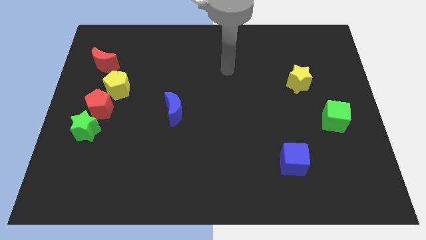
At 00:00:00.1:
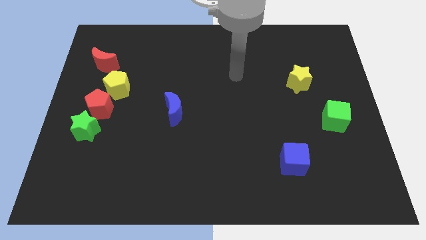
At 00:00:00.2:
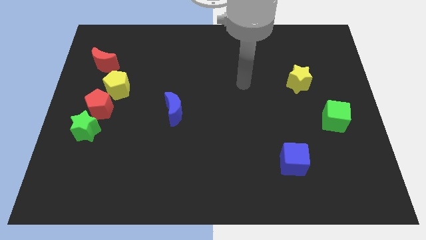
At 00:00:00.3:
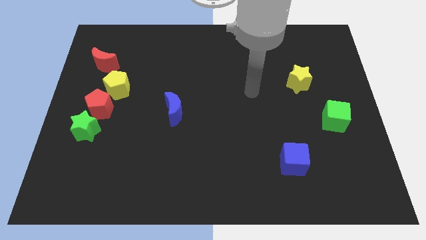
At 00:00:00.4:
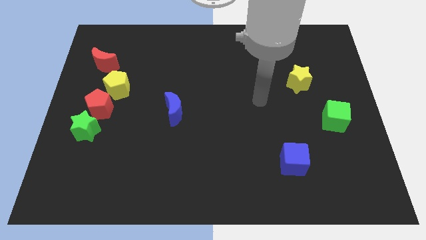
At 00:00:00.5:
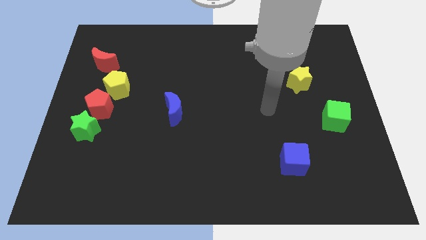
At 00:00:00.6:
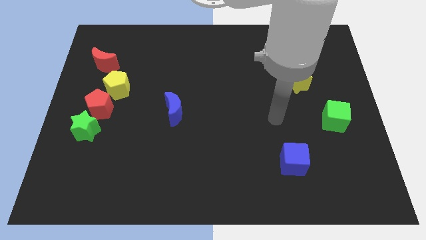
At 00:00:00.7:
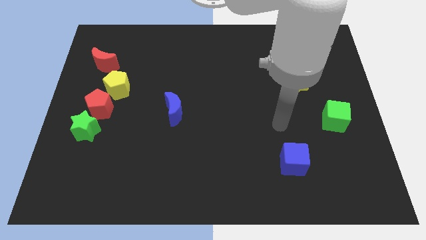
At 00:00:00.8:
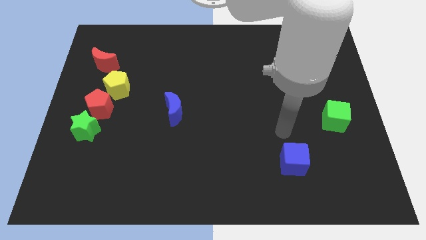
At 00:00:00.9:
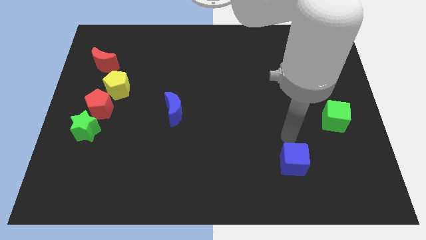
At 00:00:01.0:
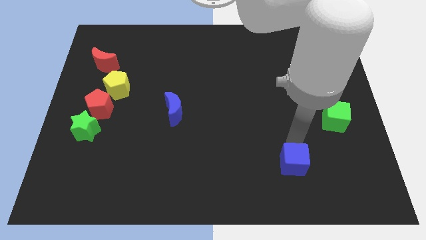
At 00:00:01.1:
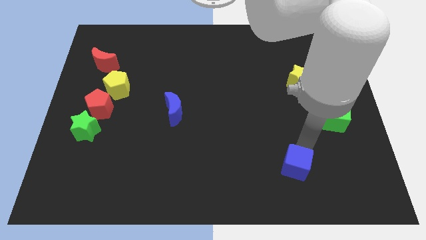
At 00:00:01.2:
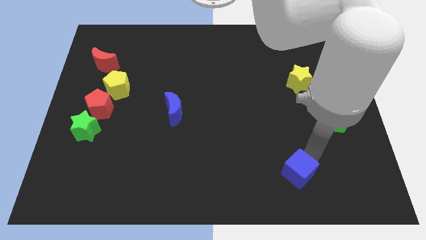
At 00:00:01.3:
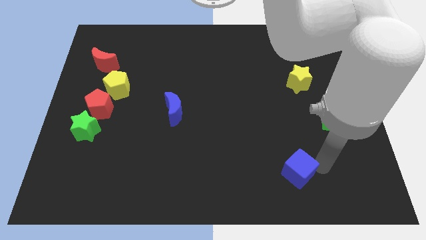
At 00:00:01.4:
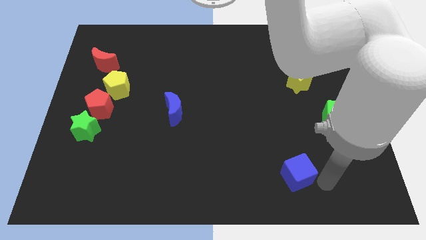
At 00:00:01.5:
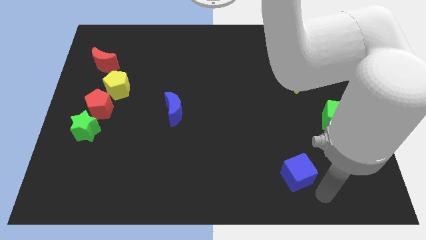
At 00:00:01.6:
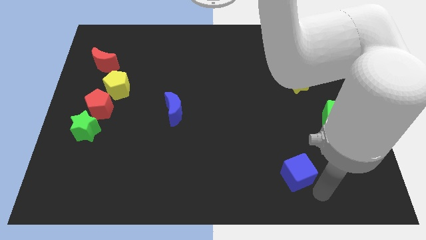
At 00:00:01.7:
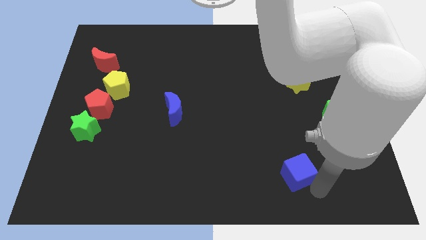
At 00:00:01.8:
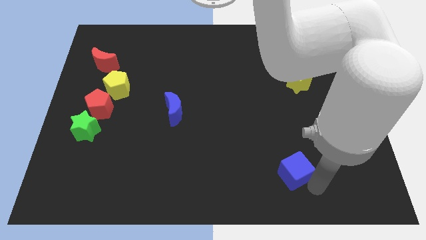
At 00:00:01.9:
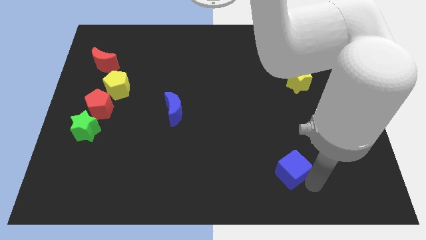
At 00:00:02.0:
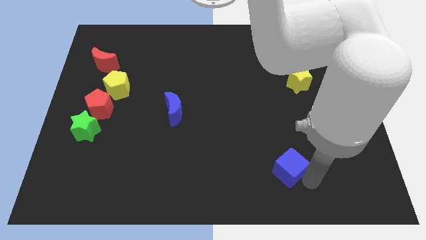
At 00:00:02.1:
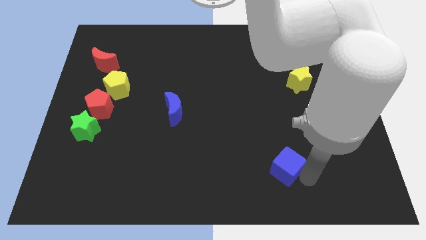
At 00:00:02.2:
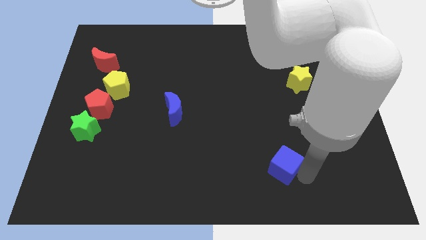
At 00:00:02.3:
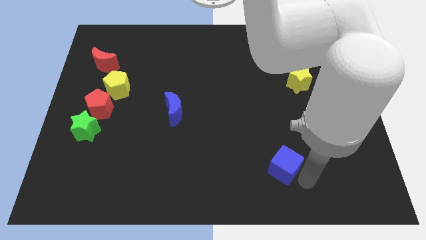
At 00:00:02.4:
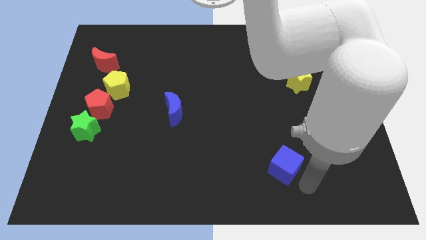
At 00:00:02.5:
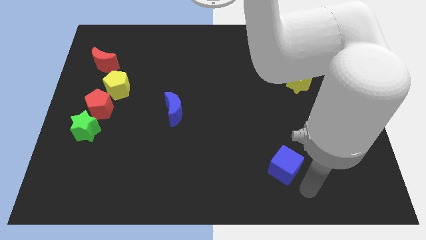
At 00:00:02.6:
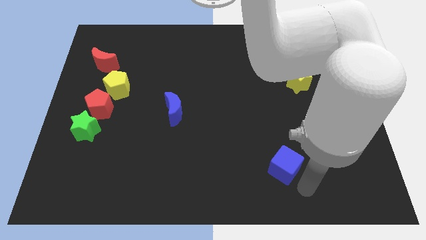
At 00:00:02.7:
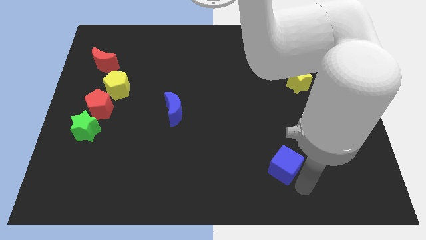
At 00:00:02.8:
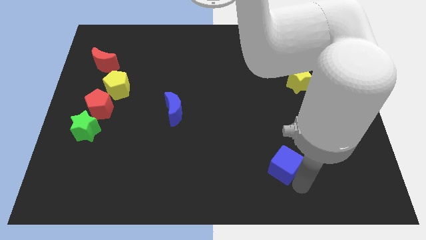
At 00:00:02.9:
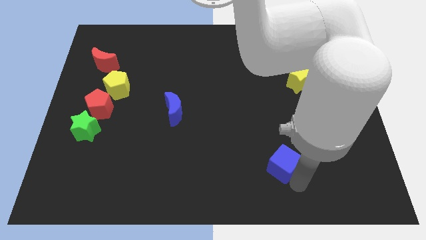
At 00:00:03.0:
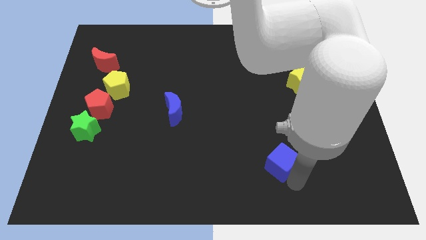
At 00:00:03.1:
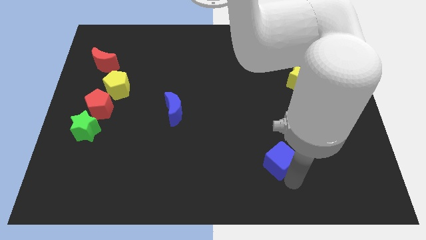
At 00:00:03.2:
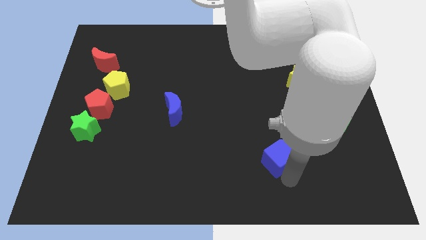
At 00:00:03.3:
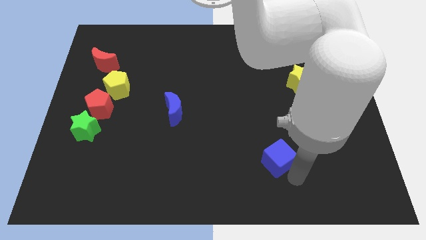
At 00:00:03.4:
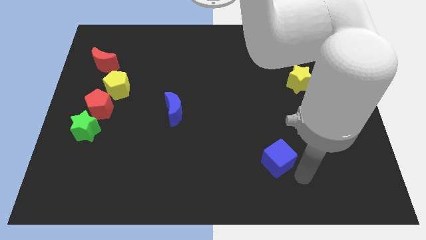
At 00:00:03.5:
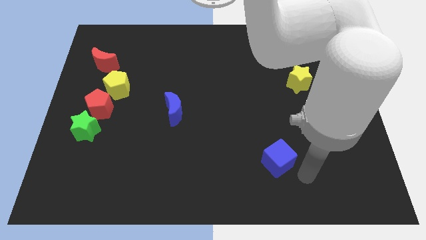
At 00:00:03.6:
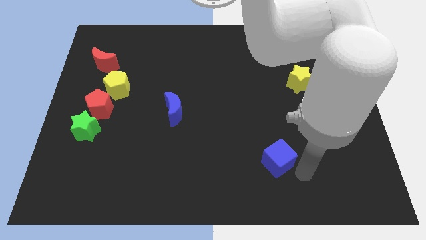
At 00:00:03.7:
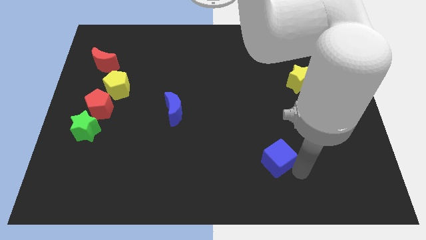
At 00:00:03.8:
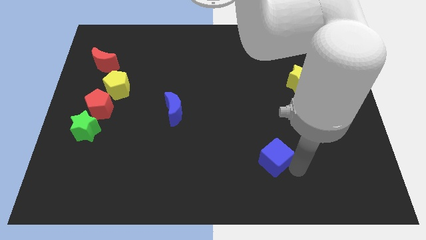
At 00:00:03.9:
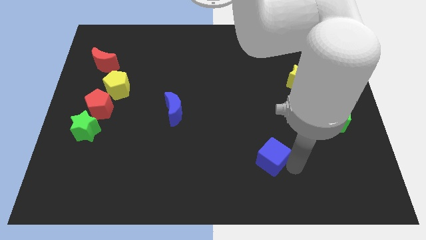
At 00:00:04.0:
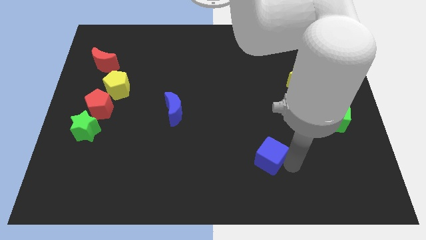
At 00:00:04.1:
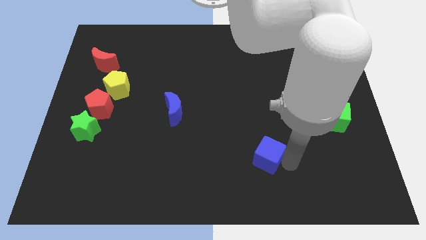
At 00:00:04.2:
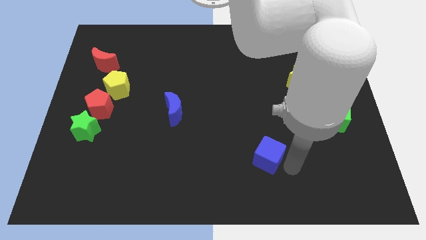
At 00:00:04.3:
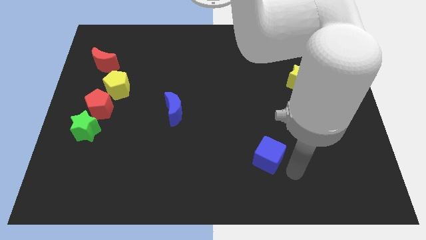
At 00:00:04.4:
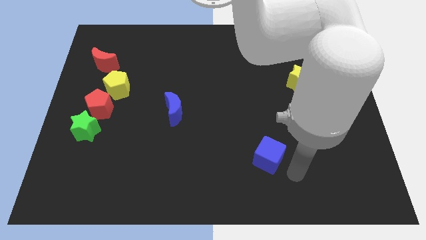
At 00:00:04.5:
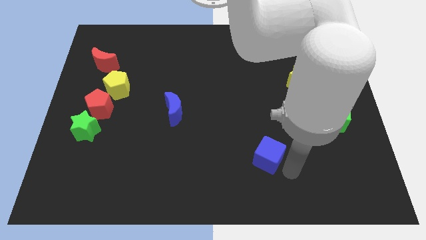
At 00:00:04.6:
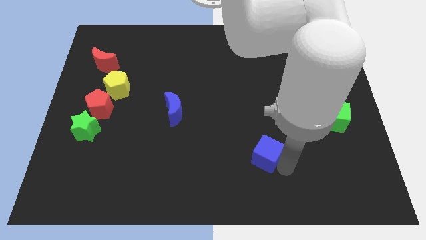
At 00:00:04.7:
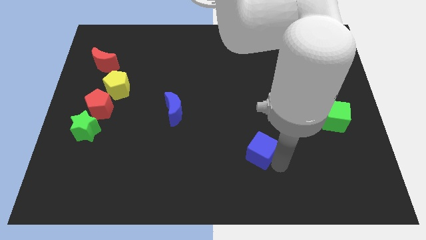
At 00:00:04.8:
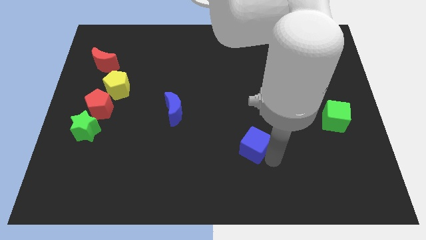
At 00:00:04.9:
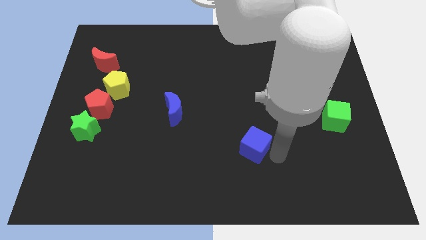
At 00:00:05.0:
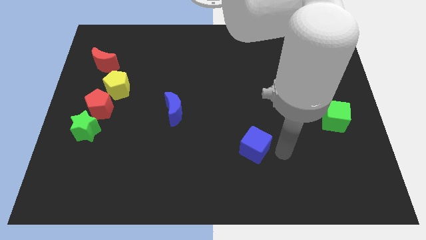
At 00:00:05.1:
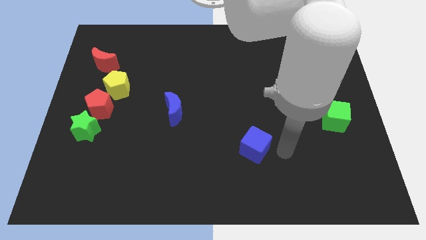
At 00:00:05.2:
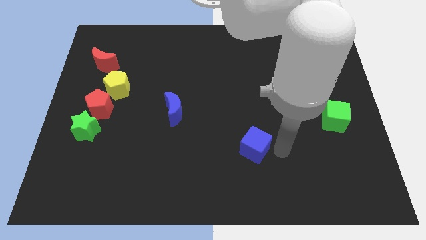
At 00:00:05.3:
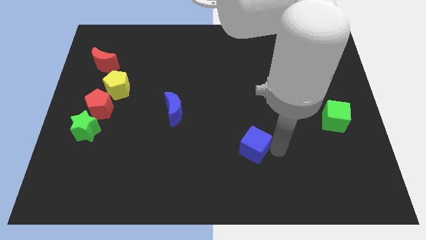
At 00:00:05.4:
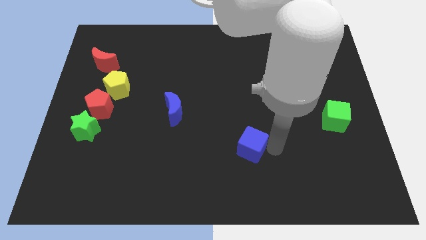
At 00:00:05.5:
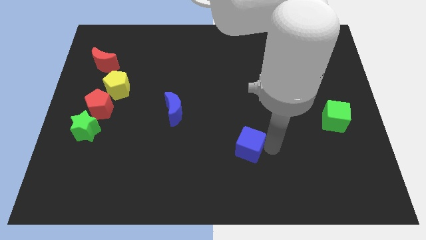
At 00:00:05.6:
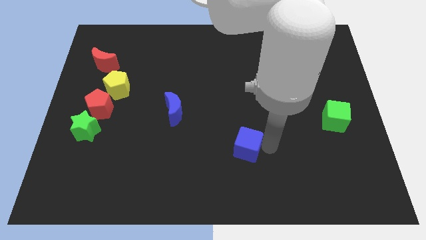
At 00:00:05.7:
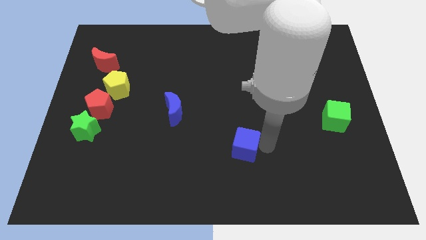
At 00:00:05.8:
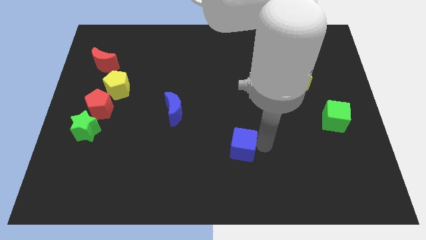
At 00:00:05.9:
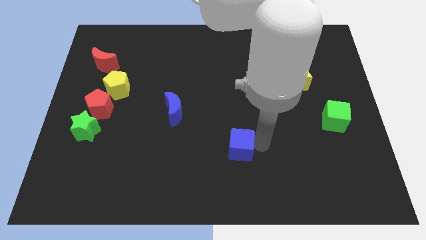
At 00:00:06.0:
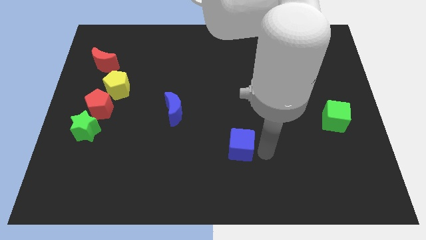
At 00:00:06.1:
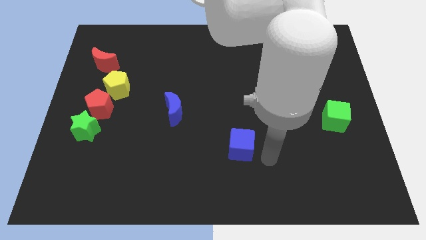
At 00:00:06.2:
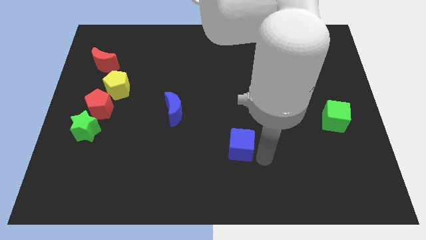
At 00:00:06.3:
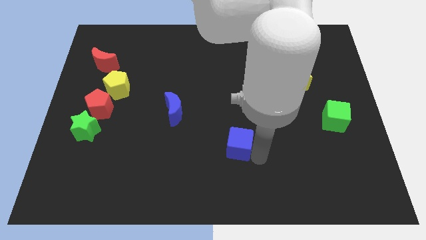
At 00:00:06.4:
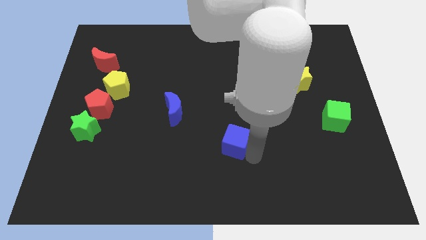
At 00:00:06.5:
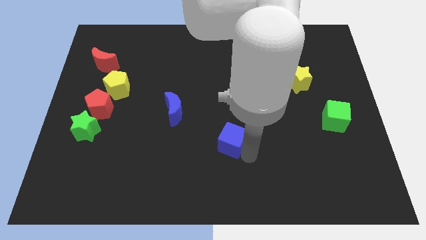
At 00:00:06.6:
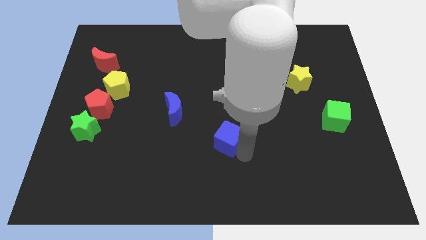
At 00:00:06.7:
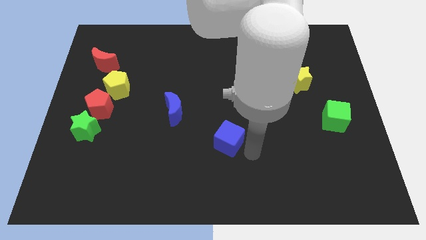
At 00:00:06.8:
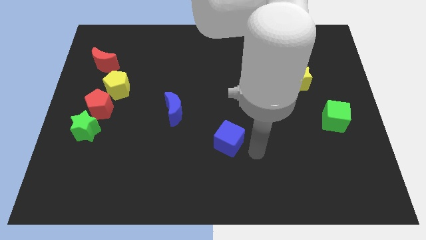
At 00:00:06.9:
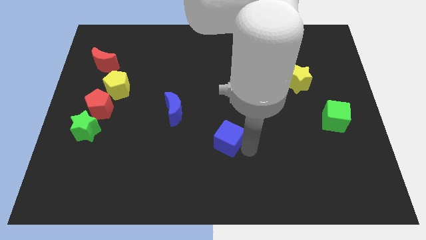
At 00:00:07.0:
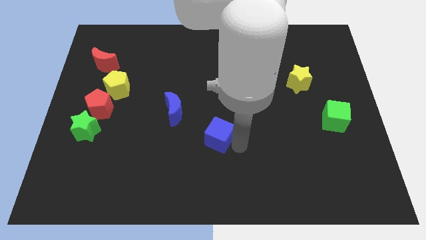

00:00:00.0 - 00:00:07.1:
push the blue cube diagonally down and to the right of the blue moon
